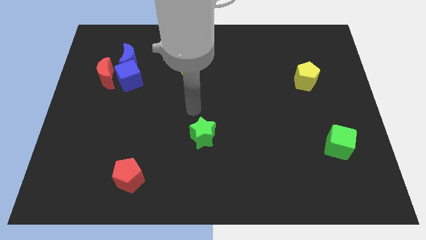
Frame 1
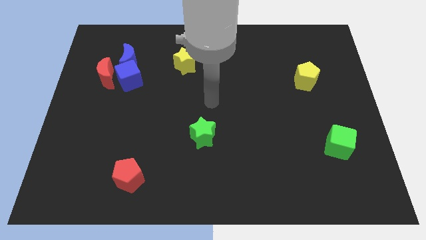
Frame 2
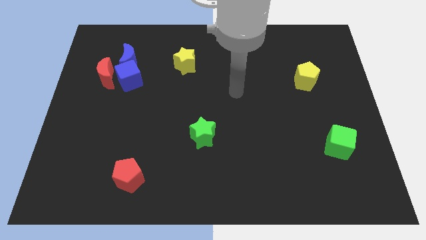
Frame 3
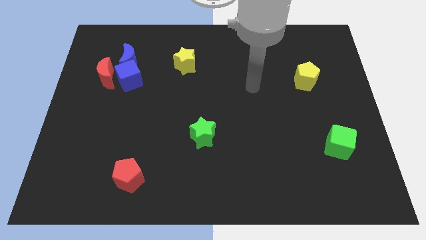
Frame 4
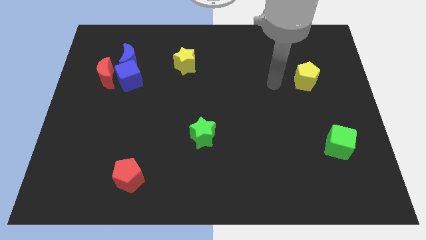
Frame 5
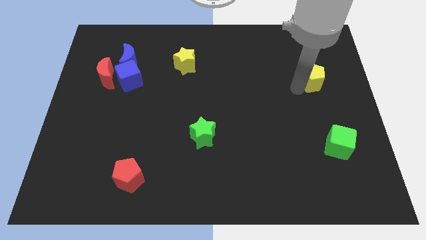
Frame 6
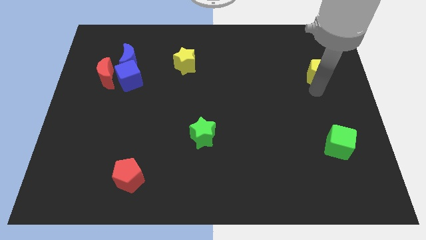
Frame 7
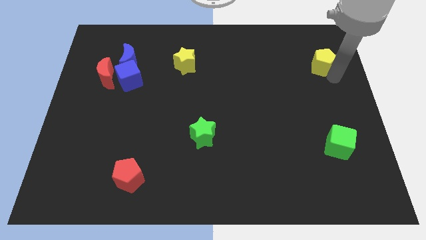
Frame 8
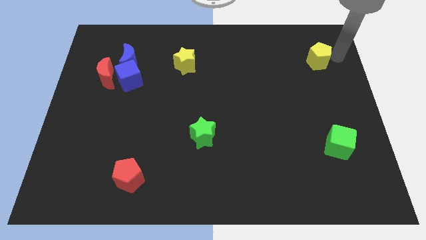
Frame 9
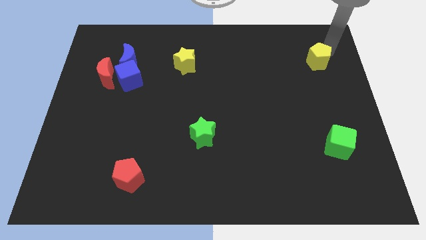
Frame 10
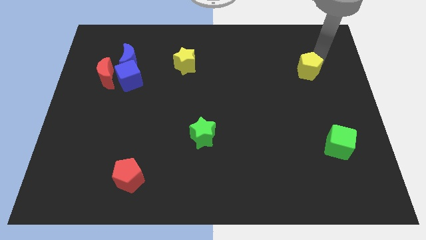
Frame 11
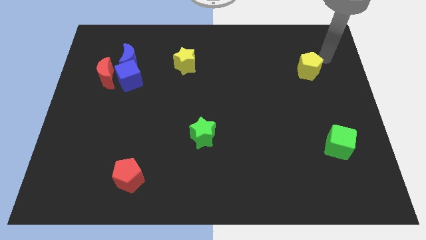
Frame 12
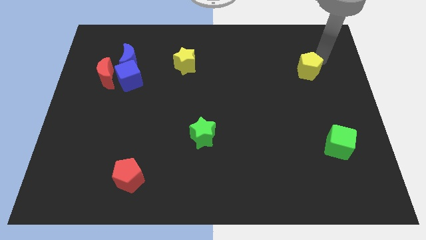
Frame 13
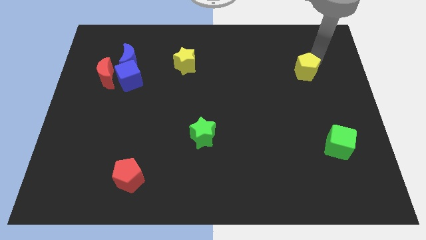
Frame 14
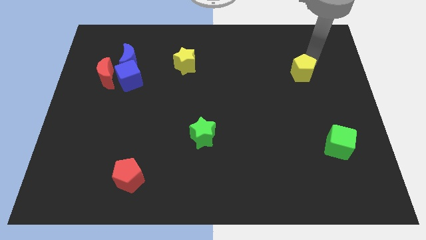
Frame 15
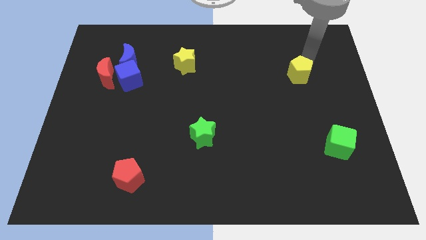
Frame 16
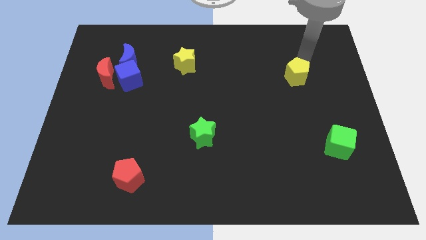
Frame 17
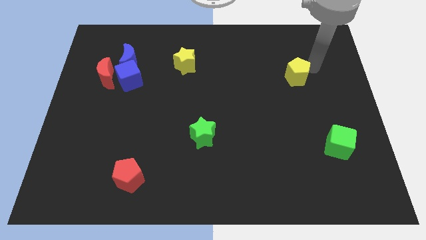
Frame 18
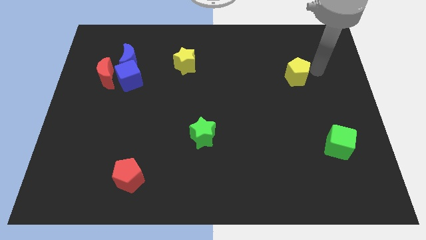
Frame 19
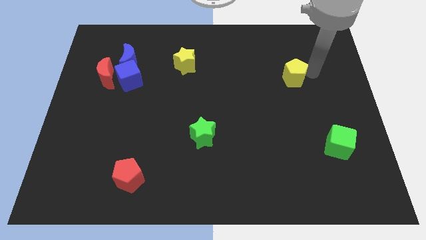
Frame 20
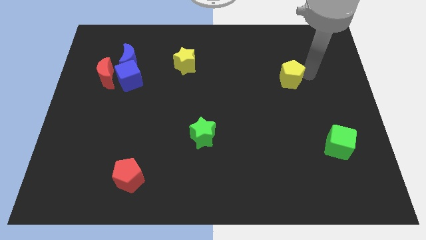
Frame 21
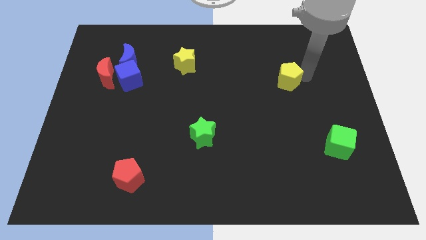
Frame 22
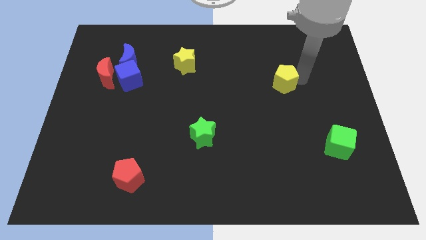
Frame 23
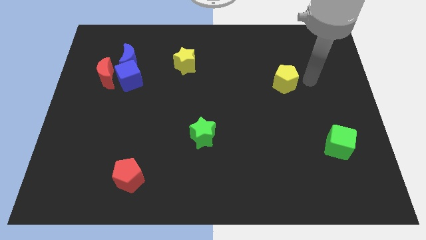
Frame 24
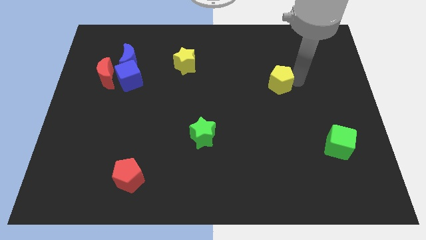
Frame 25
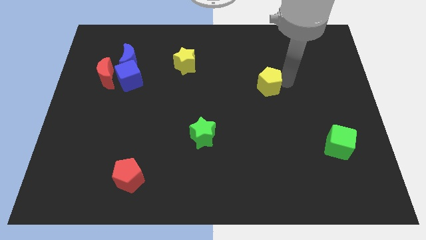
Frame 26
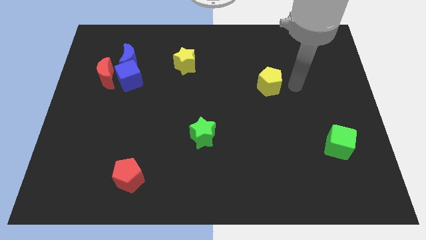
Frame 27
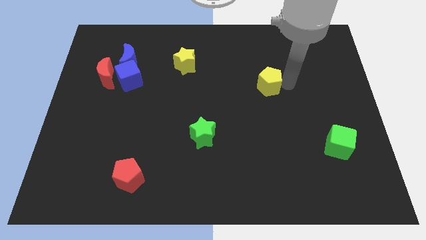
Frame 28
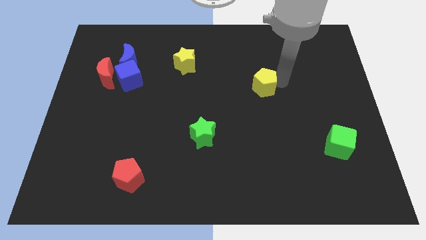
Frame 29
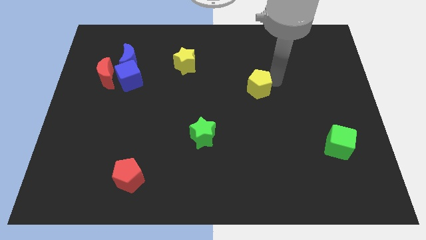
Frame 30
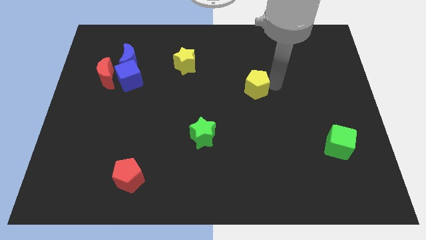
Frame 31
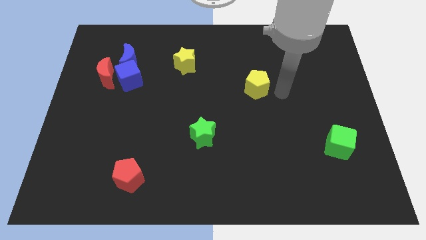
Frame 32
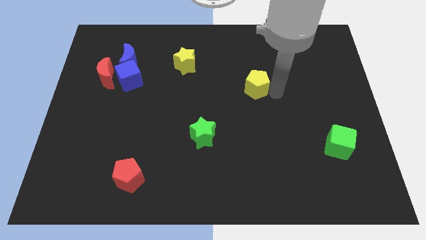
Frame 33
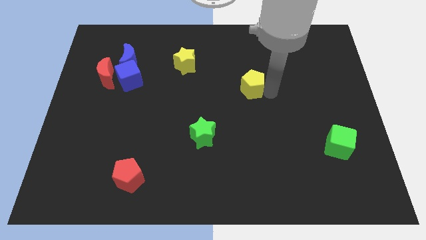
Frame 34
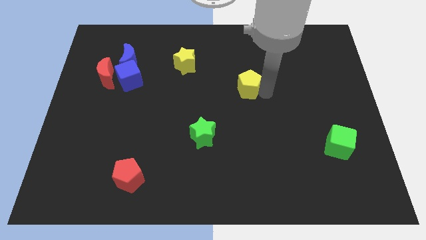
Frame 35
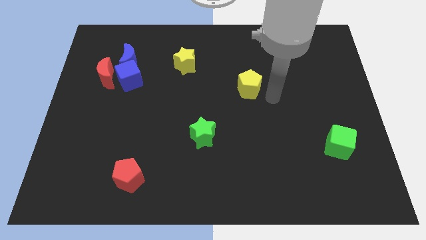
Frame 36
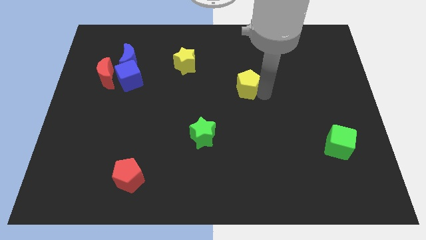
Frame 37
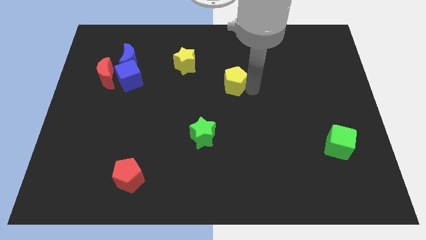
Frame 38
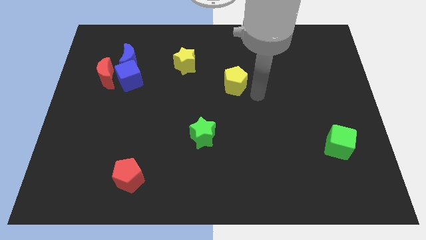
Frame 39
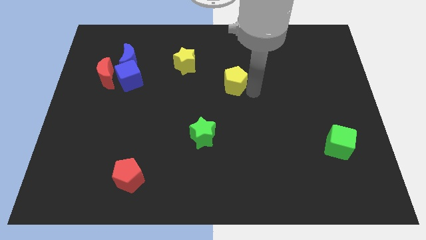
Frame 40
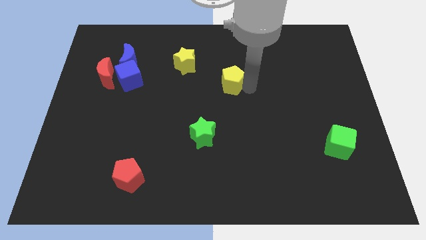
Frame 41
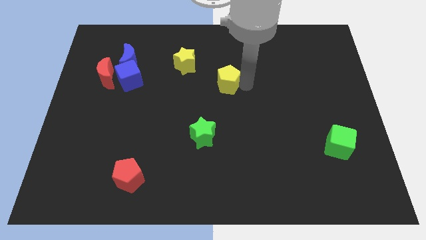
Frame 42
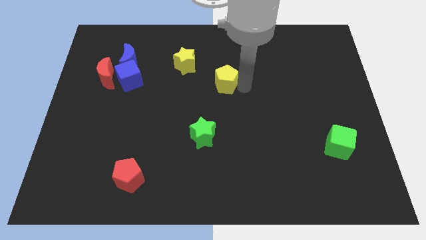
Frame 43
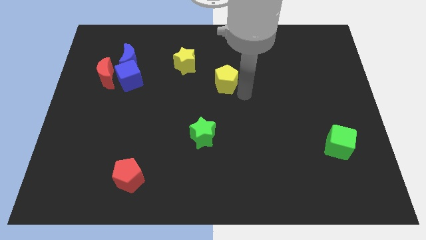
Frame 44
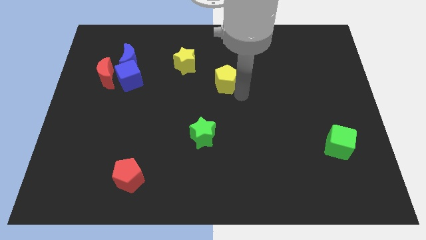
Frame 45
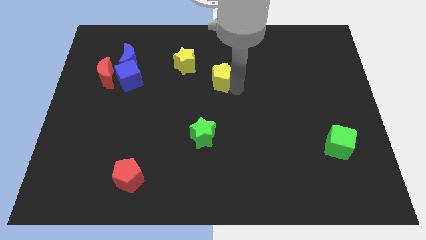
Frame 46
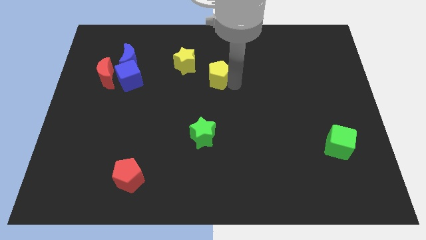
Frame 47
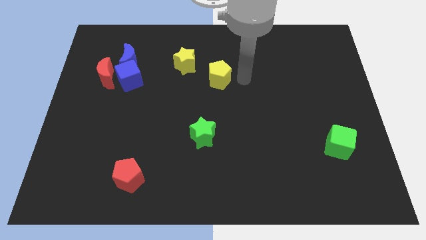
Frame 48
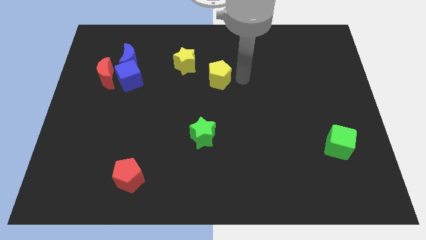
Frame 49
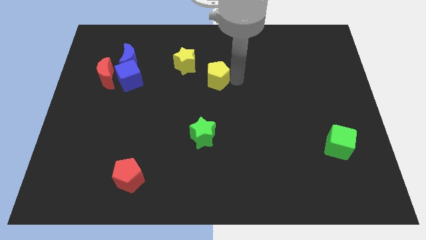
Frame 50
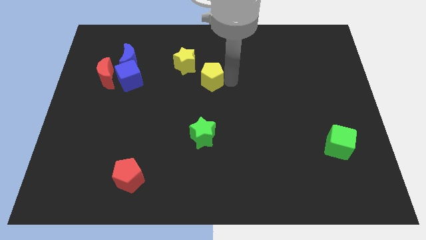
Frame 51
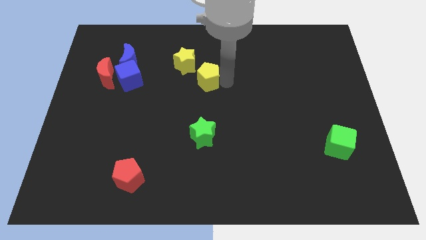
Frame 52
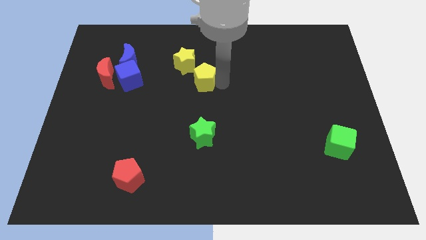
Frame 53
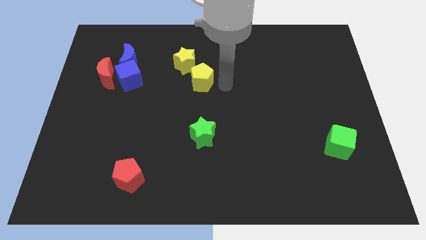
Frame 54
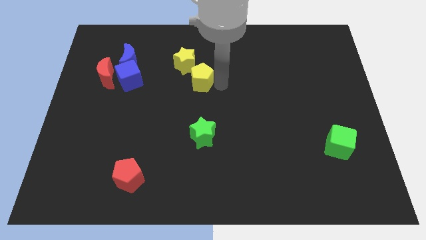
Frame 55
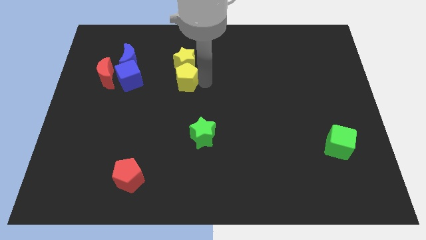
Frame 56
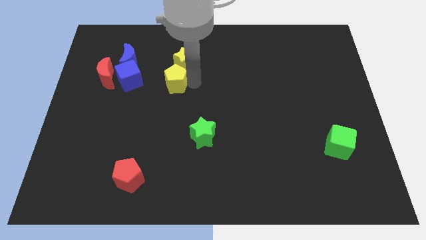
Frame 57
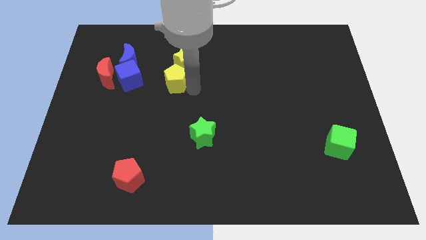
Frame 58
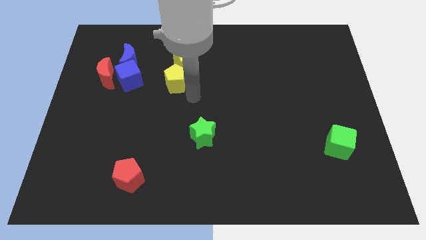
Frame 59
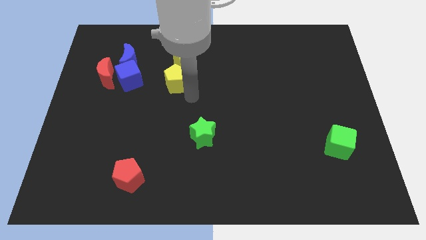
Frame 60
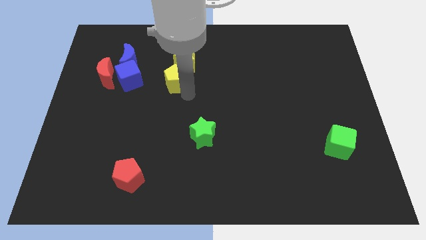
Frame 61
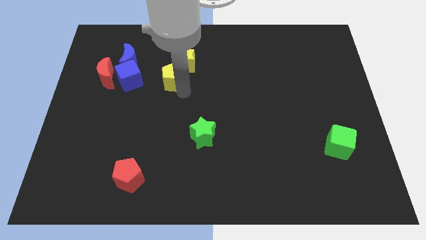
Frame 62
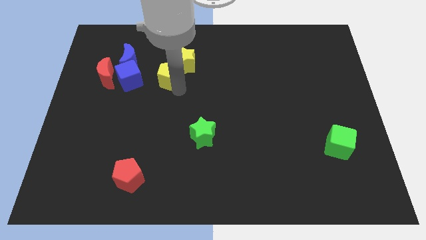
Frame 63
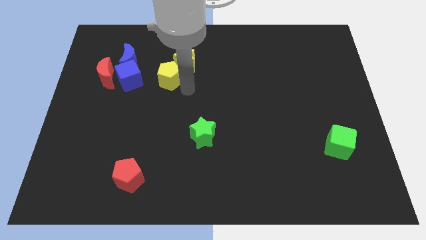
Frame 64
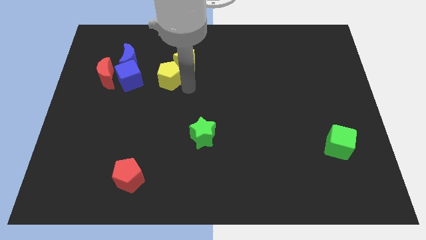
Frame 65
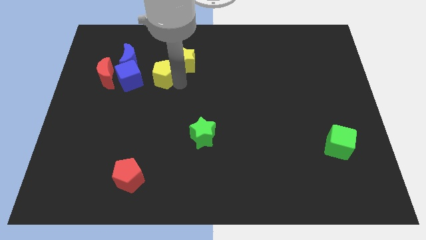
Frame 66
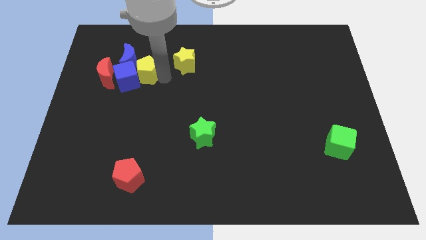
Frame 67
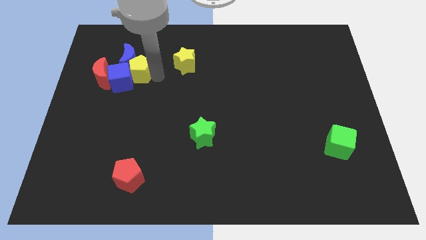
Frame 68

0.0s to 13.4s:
slide the yellow pentagon to the blue moon
